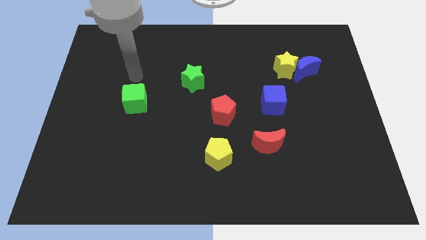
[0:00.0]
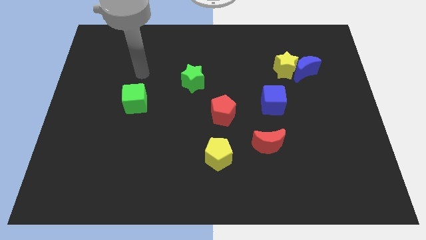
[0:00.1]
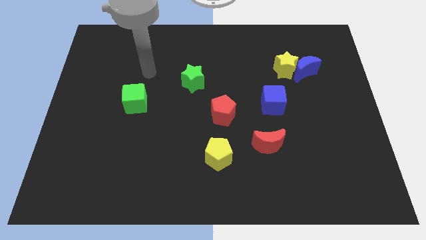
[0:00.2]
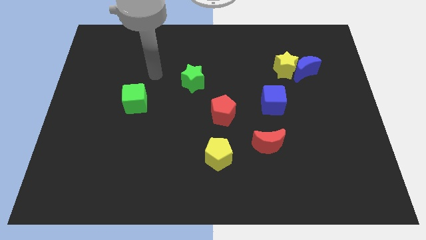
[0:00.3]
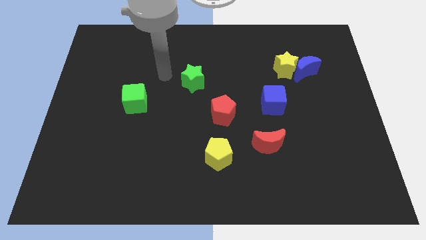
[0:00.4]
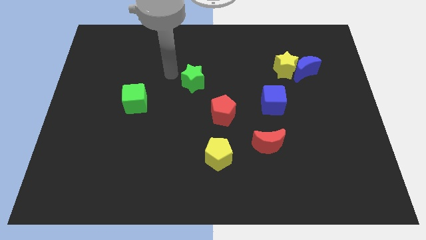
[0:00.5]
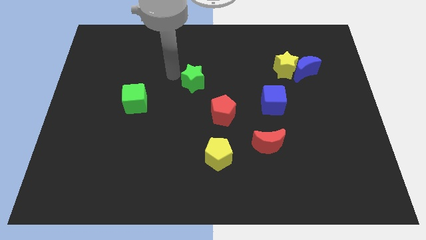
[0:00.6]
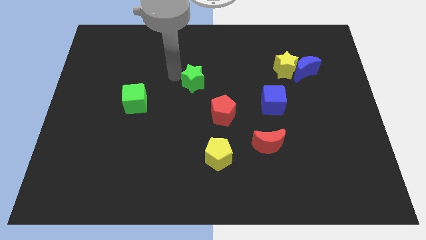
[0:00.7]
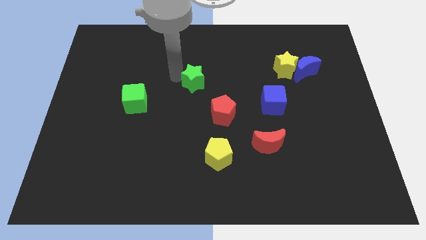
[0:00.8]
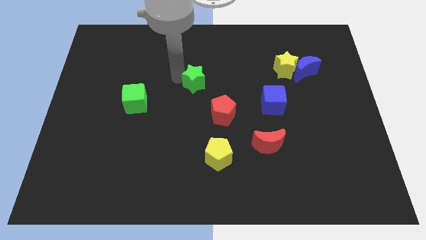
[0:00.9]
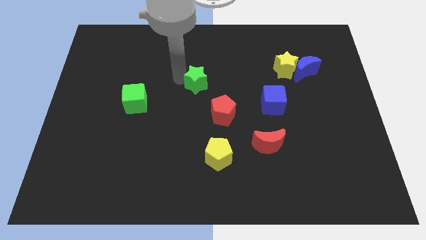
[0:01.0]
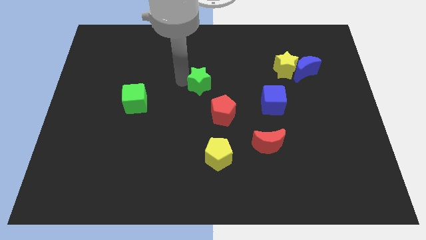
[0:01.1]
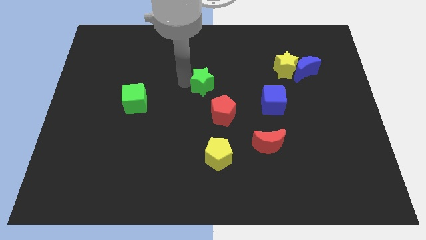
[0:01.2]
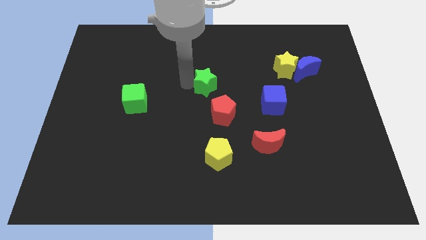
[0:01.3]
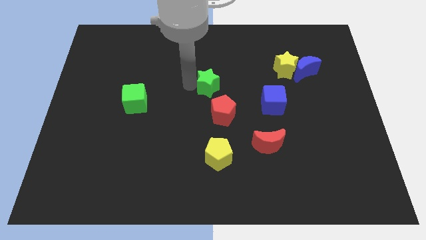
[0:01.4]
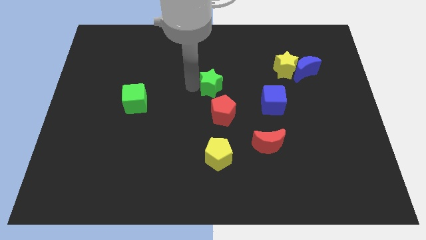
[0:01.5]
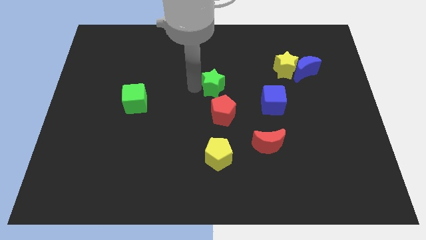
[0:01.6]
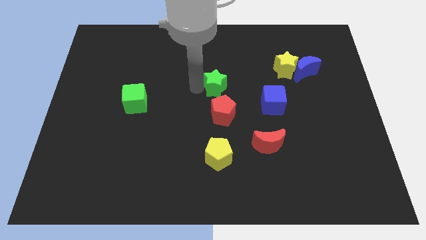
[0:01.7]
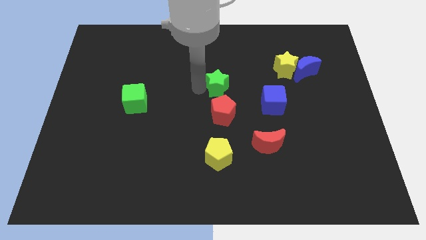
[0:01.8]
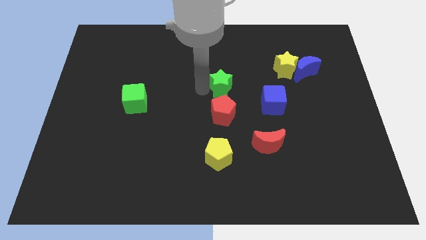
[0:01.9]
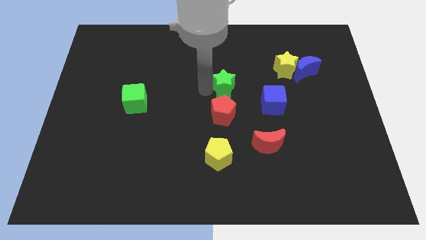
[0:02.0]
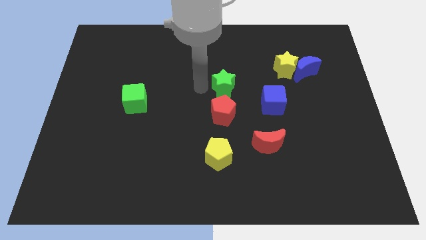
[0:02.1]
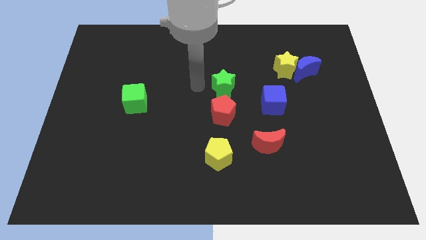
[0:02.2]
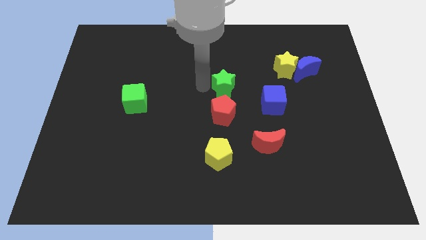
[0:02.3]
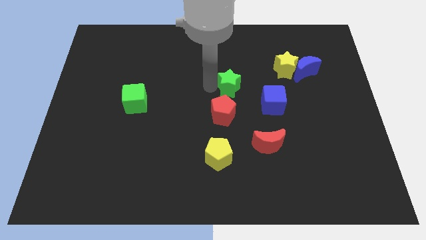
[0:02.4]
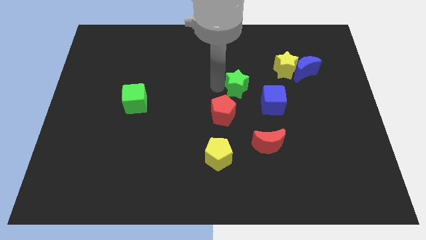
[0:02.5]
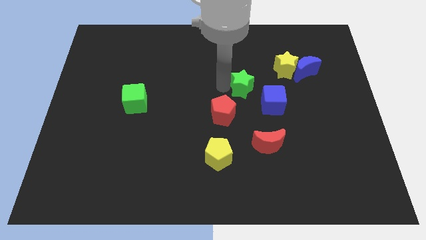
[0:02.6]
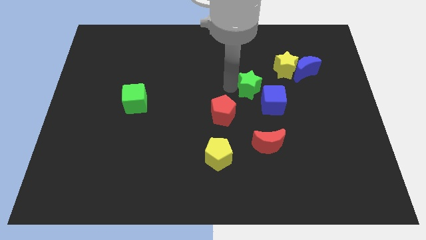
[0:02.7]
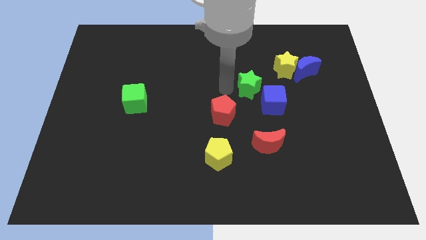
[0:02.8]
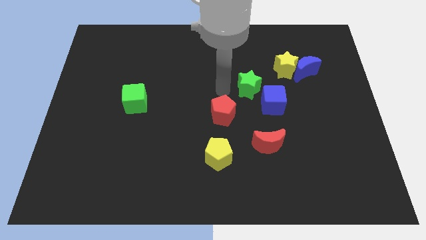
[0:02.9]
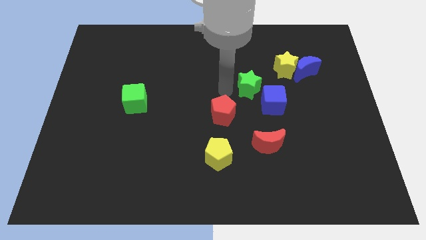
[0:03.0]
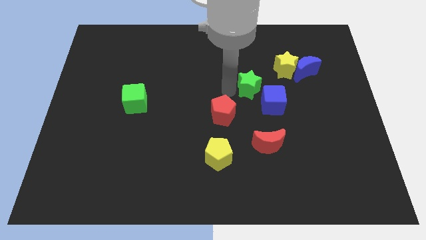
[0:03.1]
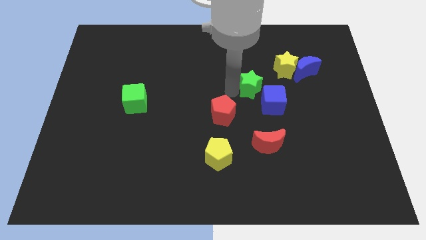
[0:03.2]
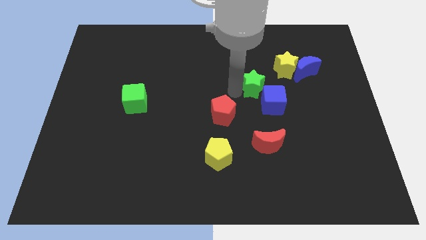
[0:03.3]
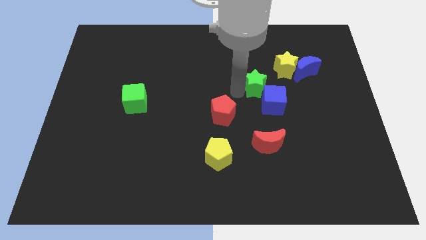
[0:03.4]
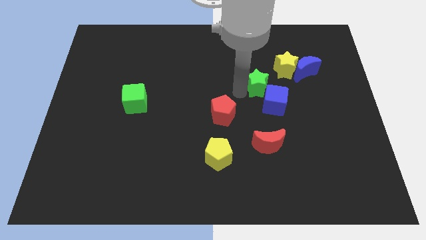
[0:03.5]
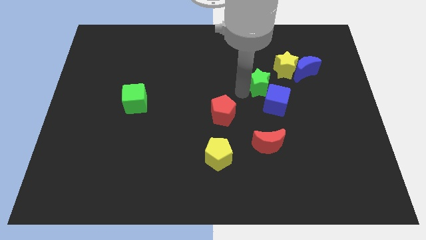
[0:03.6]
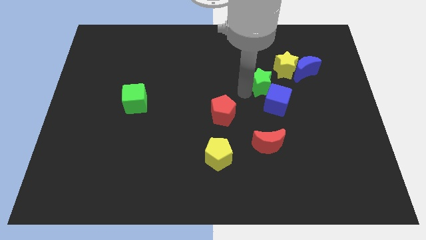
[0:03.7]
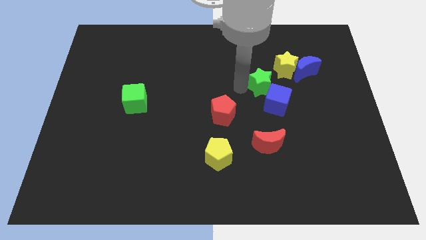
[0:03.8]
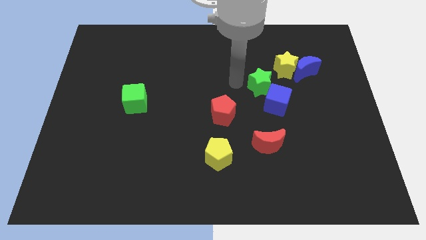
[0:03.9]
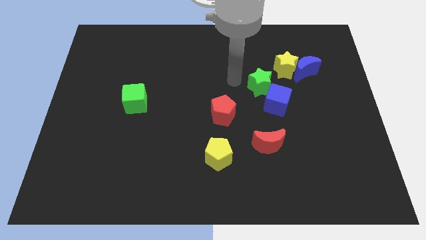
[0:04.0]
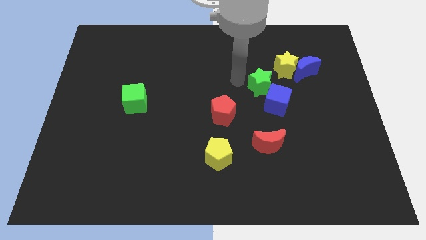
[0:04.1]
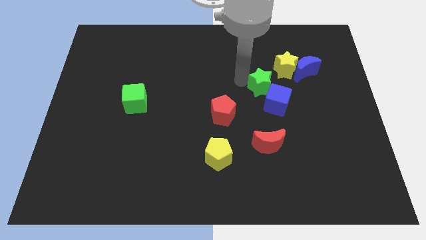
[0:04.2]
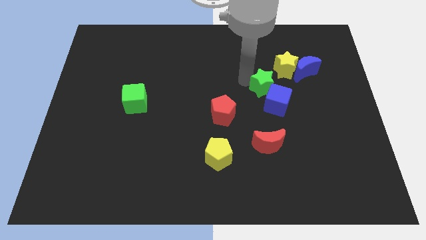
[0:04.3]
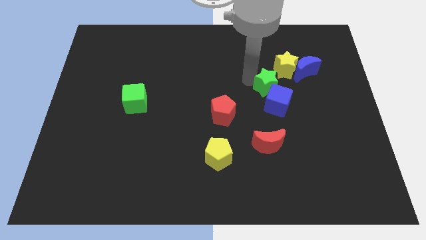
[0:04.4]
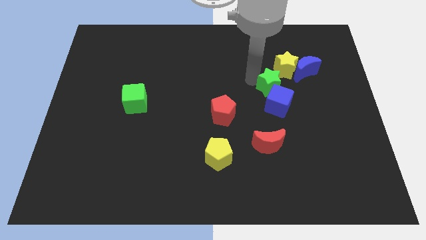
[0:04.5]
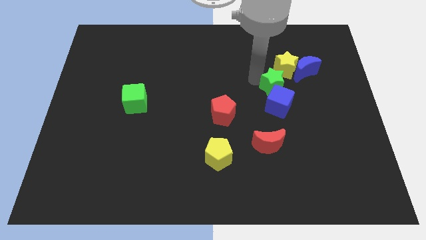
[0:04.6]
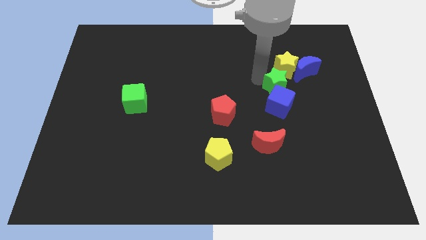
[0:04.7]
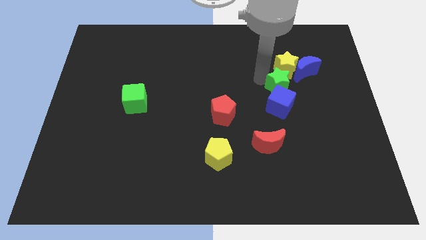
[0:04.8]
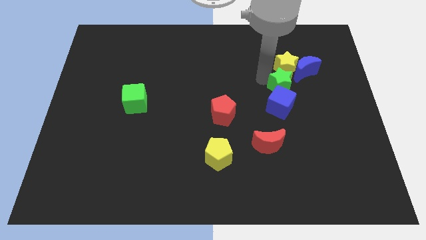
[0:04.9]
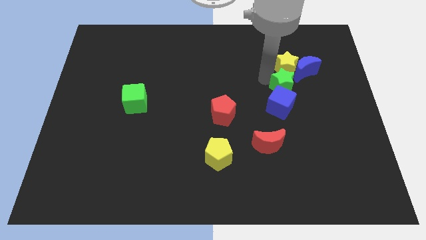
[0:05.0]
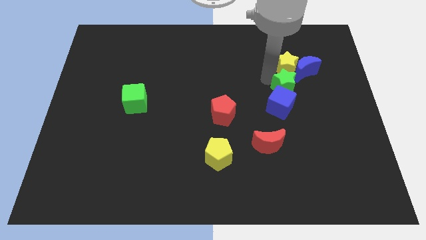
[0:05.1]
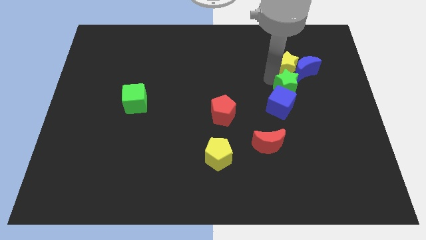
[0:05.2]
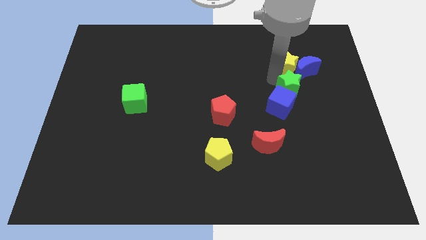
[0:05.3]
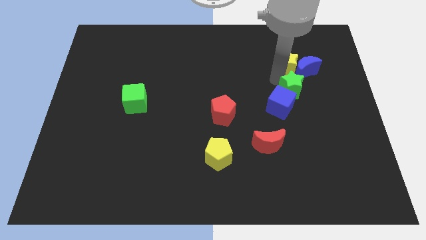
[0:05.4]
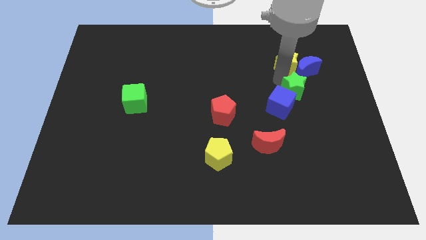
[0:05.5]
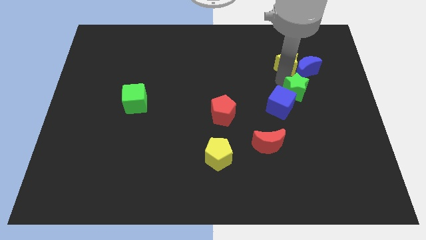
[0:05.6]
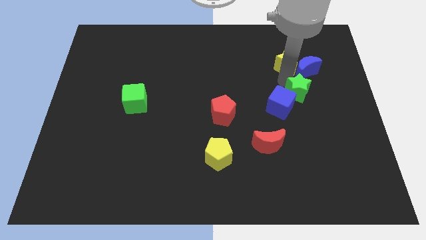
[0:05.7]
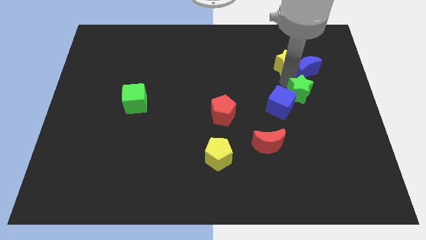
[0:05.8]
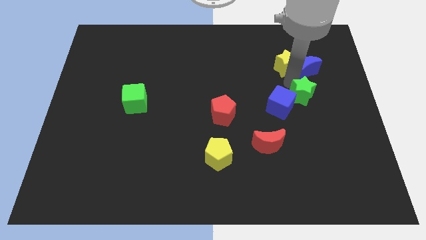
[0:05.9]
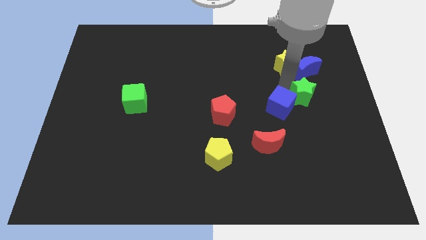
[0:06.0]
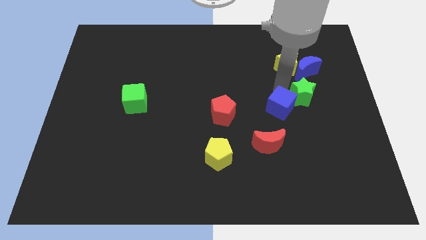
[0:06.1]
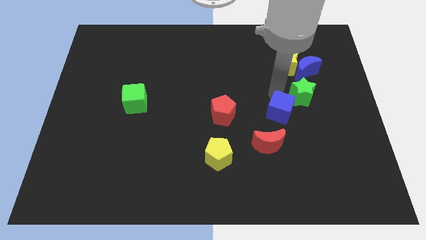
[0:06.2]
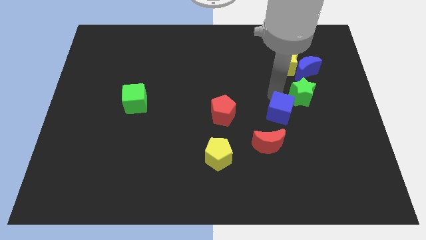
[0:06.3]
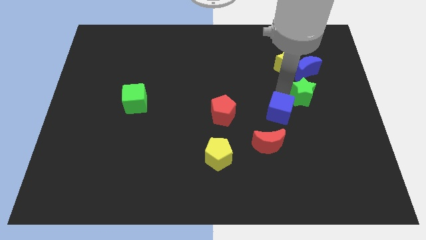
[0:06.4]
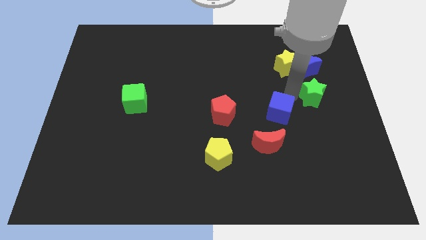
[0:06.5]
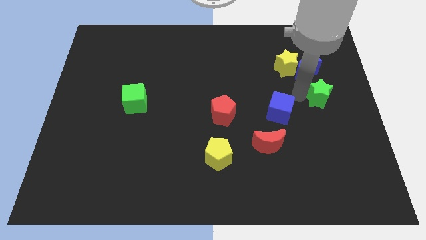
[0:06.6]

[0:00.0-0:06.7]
move the green star to the right side

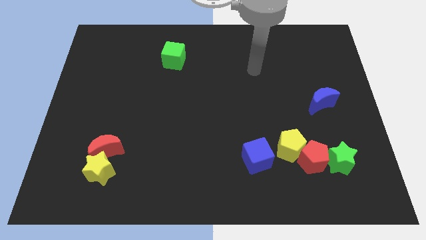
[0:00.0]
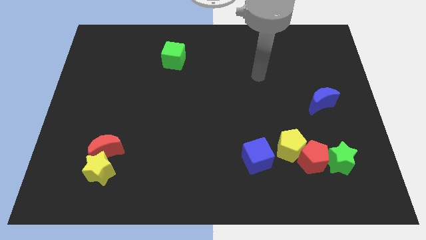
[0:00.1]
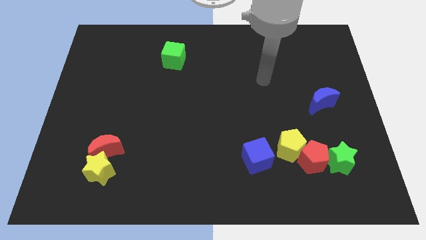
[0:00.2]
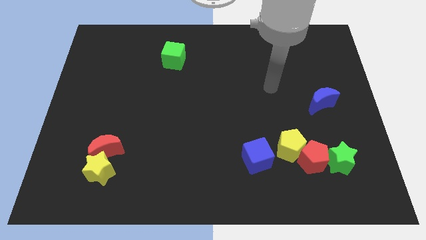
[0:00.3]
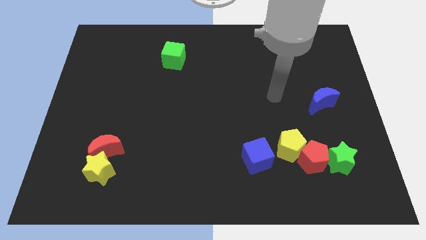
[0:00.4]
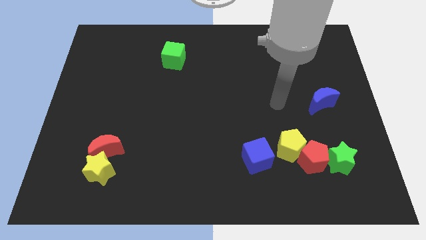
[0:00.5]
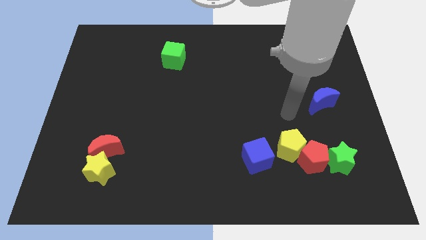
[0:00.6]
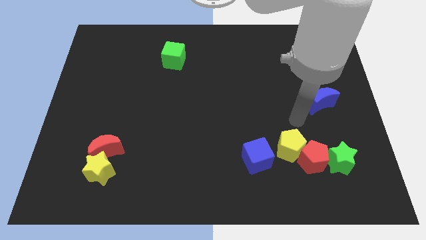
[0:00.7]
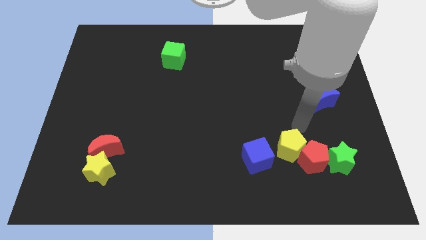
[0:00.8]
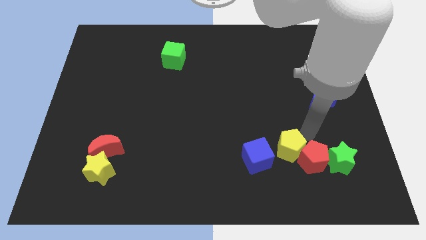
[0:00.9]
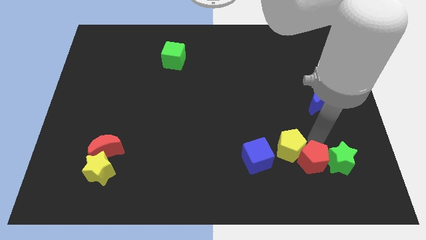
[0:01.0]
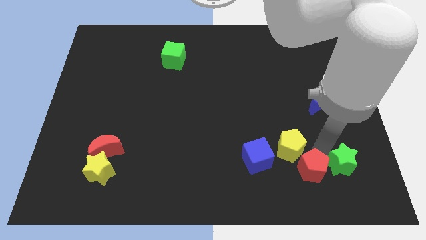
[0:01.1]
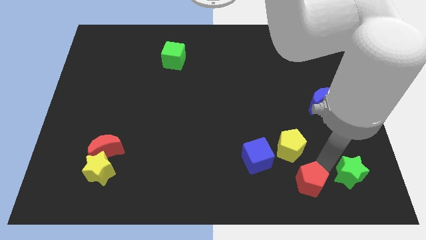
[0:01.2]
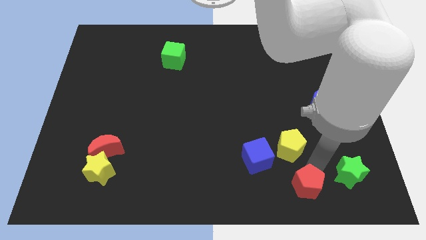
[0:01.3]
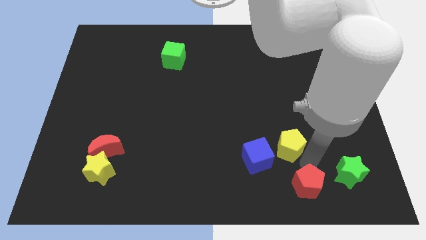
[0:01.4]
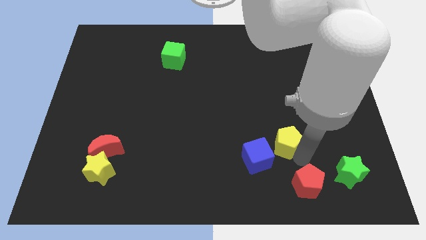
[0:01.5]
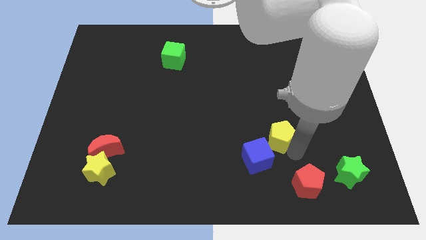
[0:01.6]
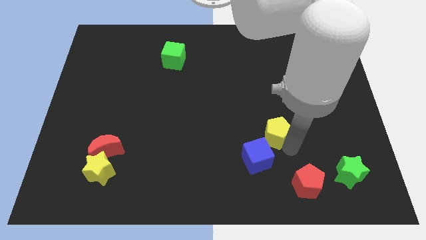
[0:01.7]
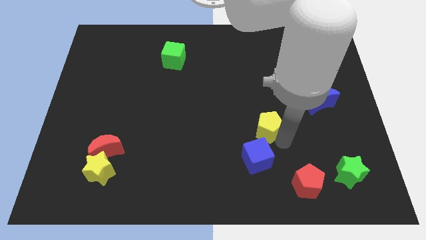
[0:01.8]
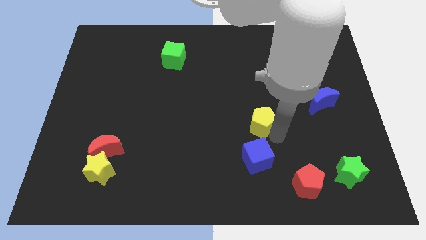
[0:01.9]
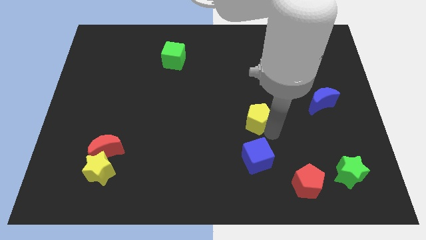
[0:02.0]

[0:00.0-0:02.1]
put the yellow pentagon to the middle
